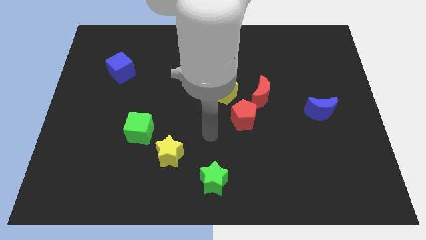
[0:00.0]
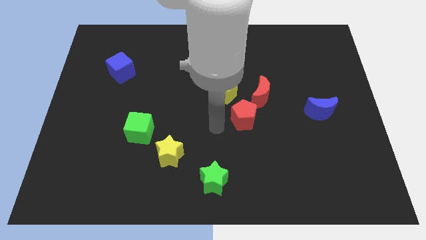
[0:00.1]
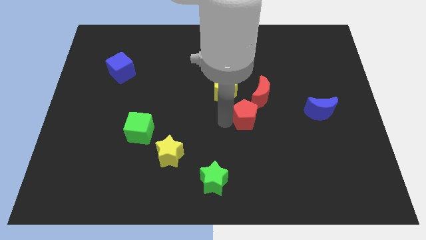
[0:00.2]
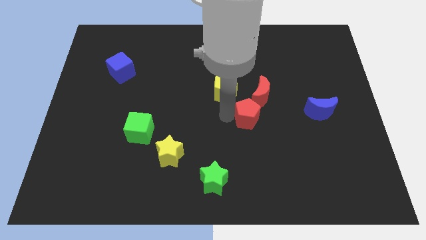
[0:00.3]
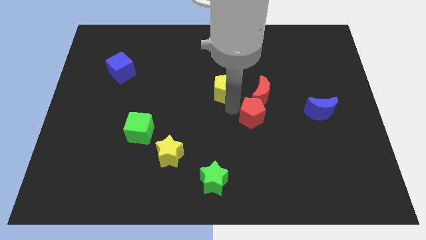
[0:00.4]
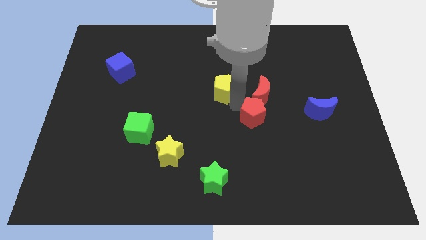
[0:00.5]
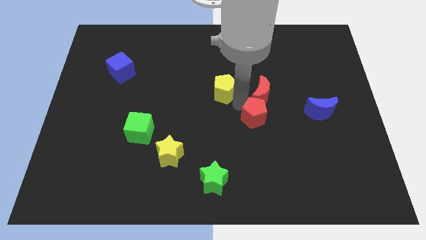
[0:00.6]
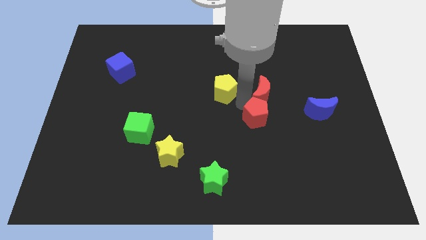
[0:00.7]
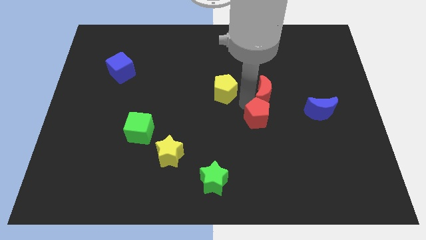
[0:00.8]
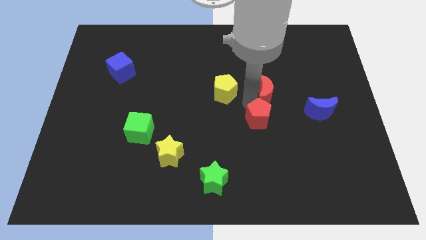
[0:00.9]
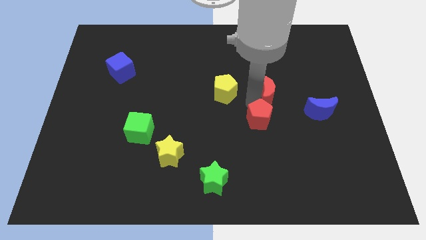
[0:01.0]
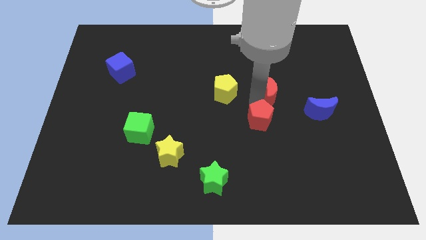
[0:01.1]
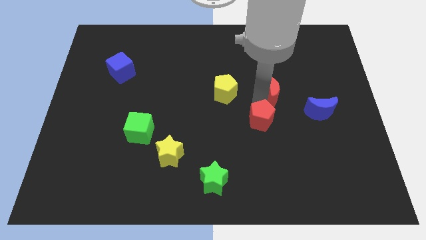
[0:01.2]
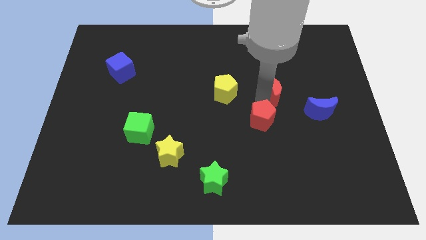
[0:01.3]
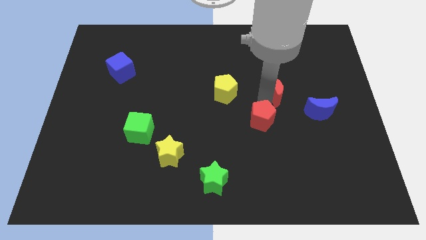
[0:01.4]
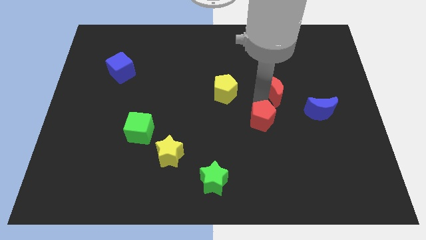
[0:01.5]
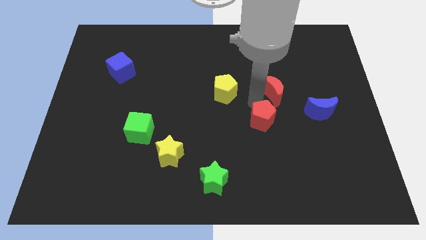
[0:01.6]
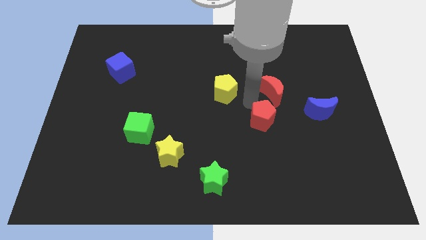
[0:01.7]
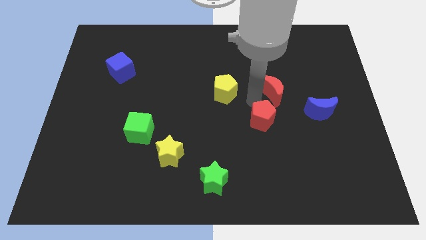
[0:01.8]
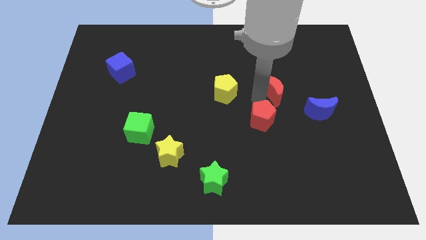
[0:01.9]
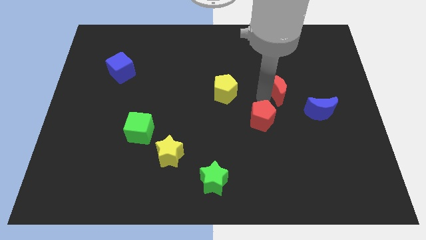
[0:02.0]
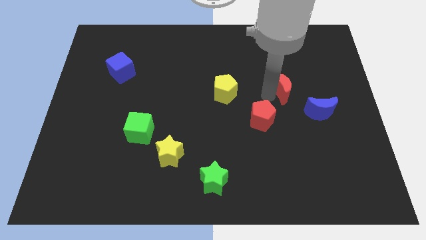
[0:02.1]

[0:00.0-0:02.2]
move the red moon away from the red pentagon and yellow pentagon

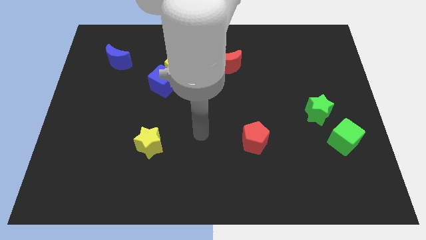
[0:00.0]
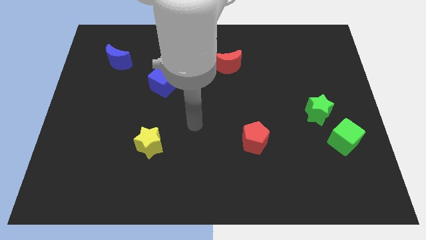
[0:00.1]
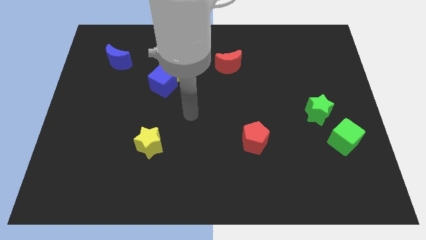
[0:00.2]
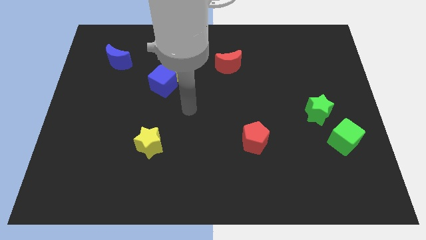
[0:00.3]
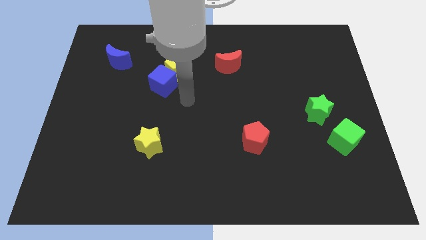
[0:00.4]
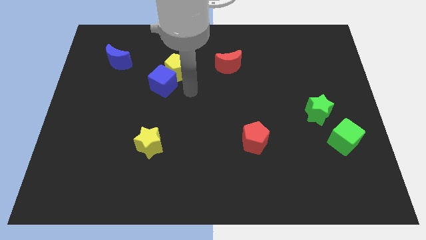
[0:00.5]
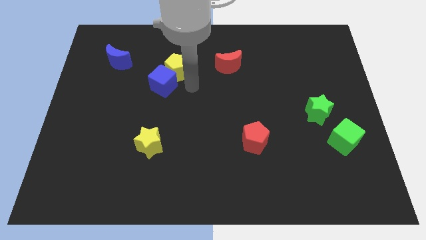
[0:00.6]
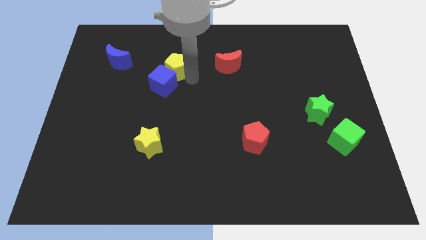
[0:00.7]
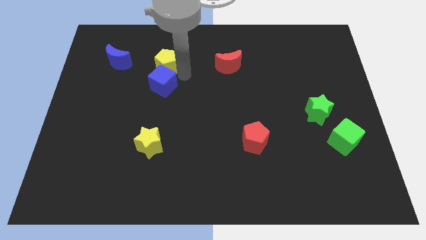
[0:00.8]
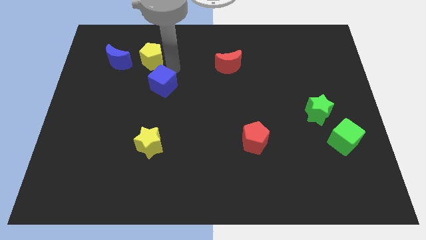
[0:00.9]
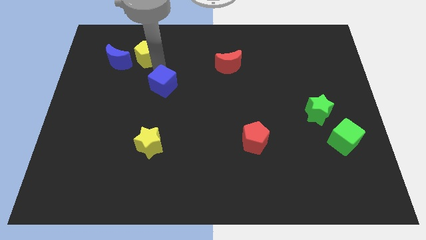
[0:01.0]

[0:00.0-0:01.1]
pull the blue cube apart from the yellow pentagon

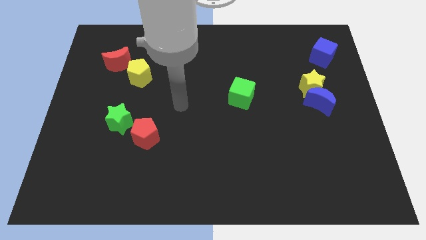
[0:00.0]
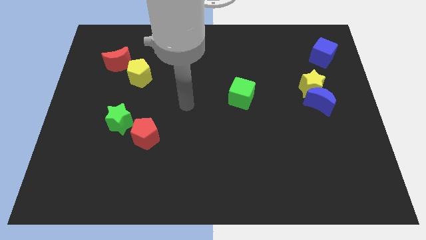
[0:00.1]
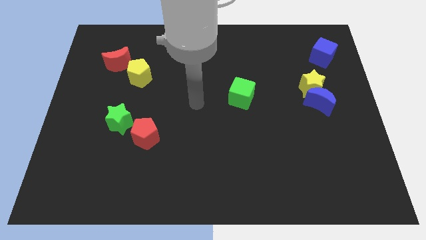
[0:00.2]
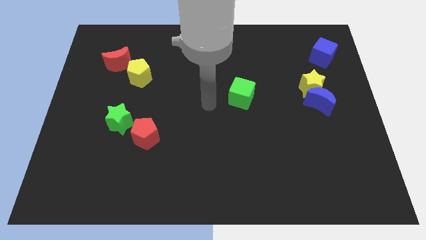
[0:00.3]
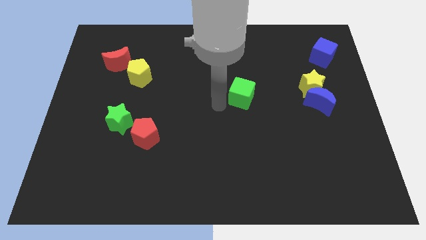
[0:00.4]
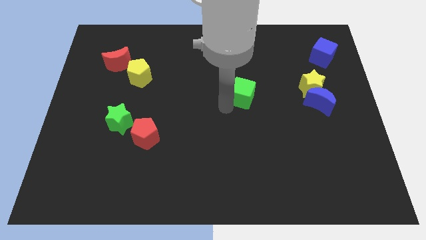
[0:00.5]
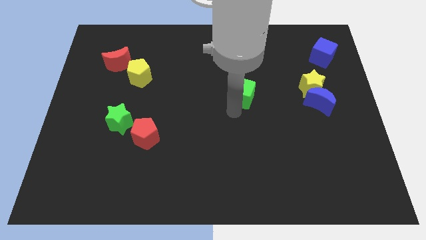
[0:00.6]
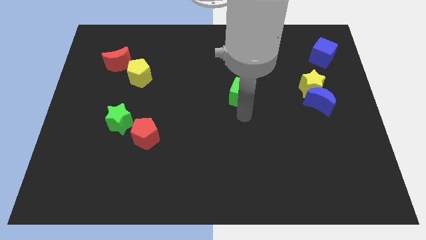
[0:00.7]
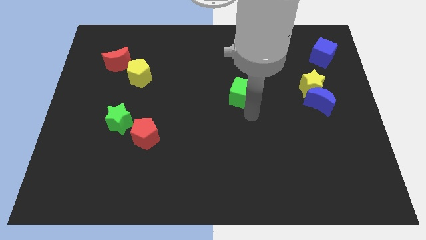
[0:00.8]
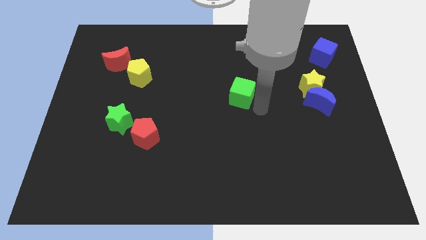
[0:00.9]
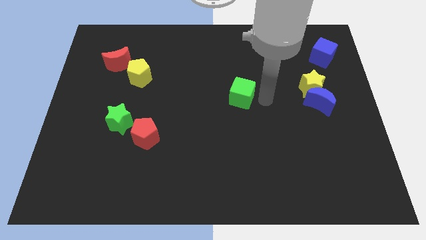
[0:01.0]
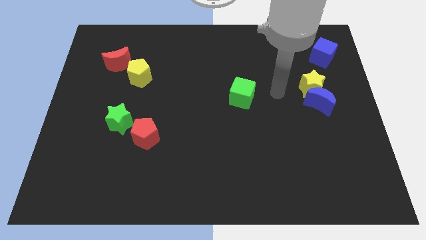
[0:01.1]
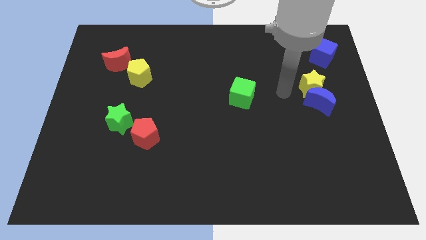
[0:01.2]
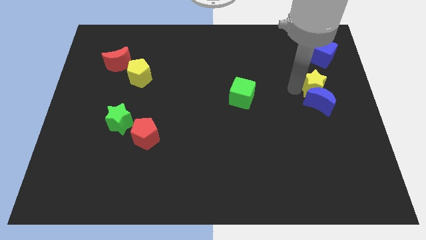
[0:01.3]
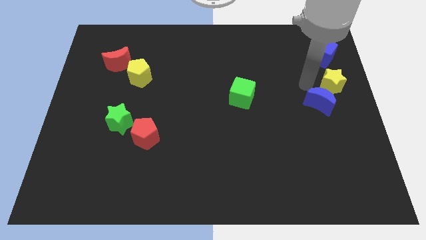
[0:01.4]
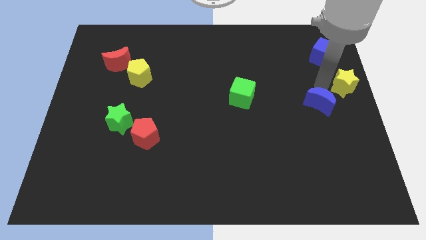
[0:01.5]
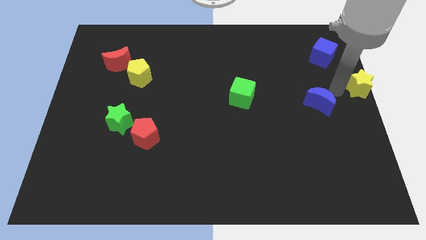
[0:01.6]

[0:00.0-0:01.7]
separate the blue moon from the yellow star

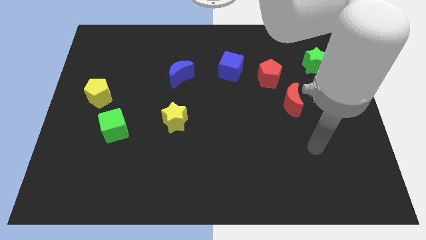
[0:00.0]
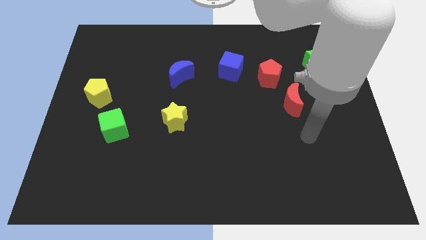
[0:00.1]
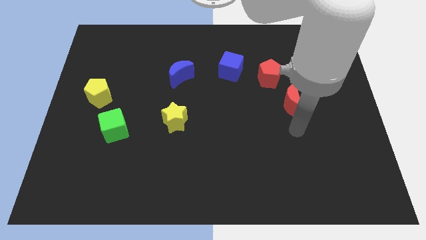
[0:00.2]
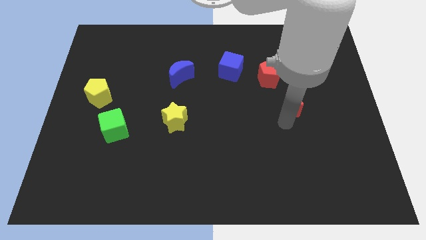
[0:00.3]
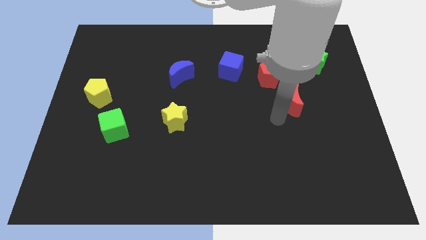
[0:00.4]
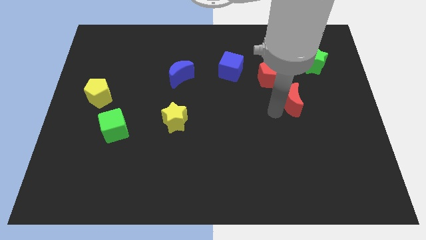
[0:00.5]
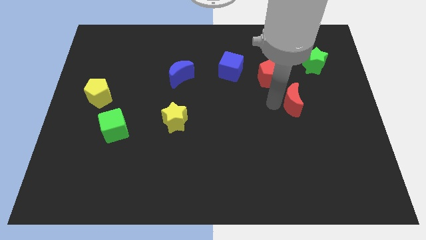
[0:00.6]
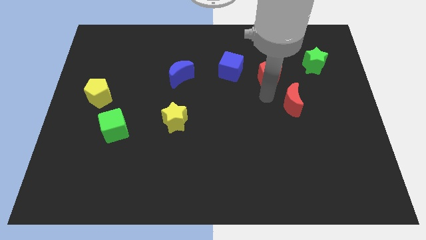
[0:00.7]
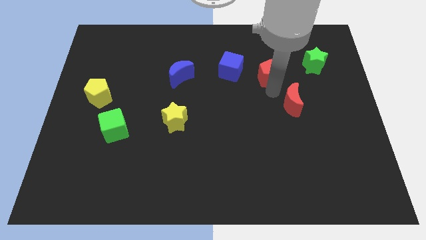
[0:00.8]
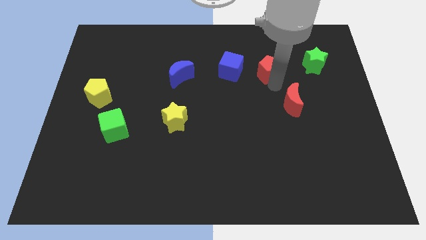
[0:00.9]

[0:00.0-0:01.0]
pull the red moon apart from the red pentagon

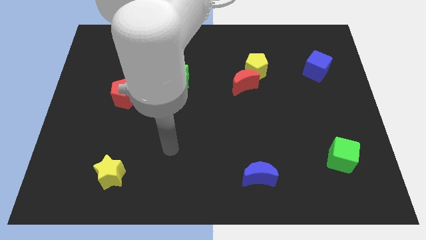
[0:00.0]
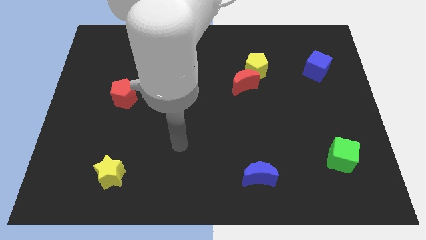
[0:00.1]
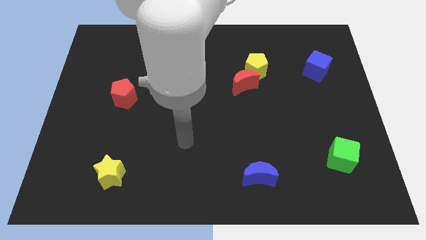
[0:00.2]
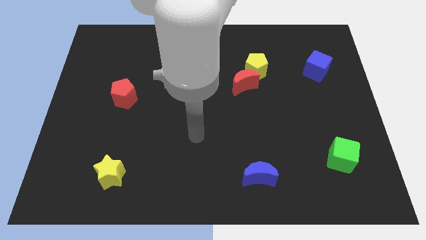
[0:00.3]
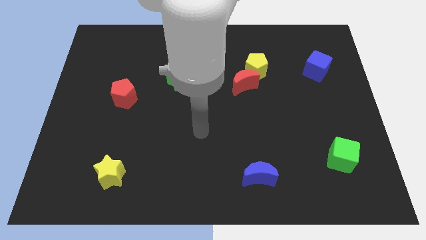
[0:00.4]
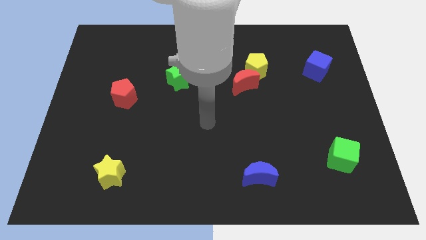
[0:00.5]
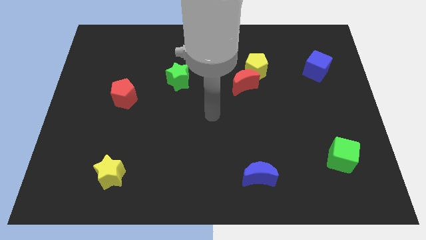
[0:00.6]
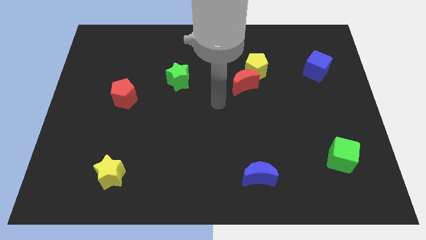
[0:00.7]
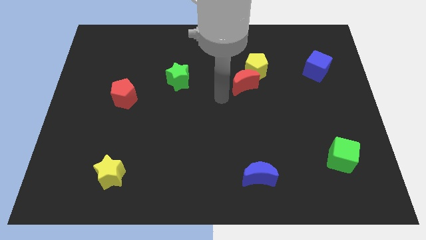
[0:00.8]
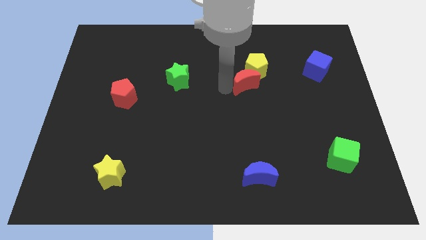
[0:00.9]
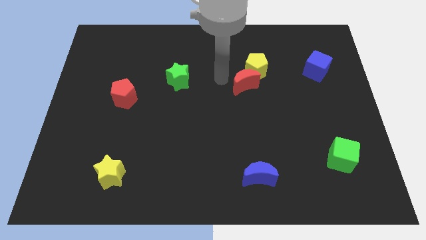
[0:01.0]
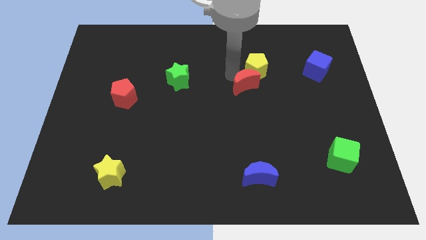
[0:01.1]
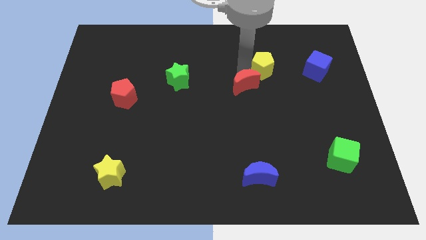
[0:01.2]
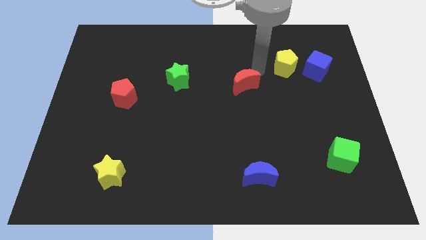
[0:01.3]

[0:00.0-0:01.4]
pull the red moon apart from the yellow pentagon

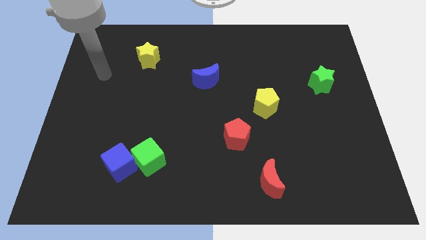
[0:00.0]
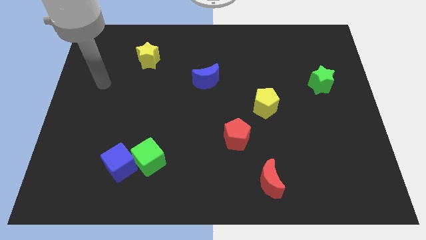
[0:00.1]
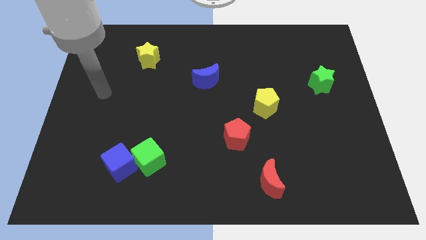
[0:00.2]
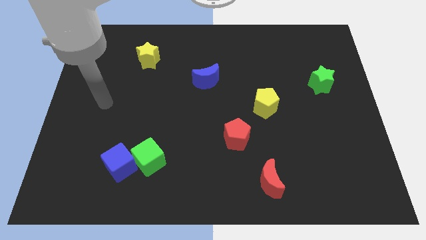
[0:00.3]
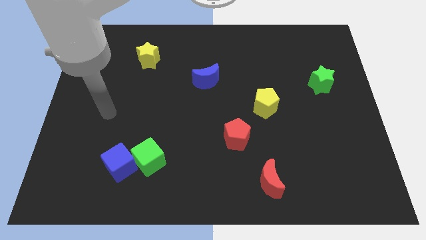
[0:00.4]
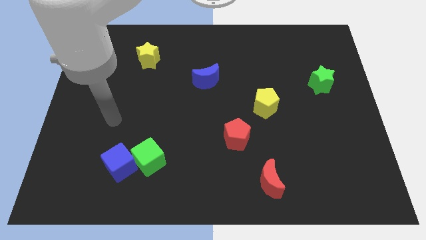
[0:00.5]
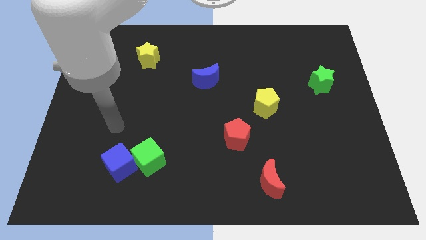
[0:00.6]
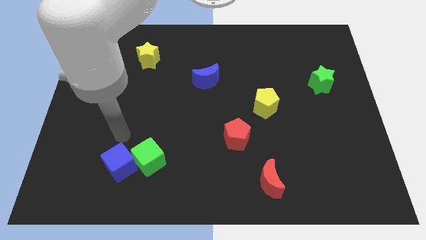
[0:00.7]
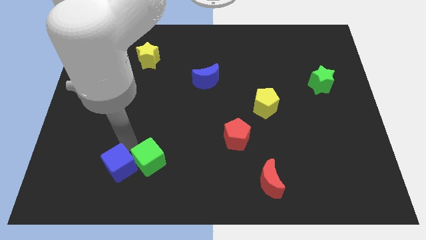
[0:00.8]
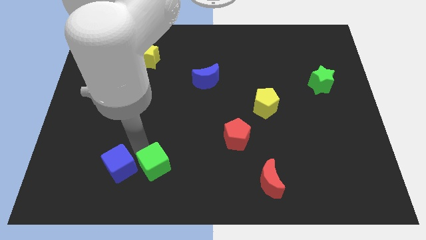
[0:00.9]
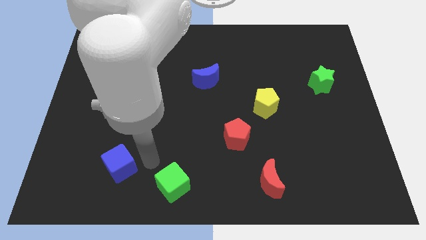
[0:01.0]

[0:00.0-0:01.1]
separate the blue cube from the green cube

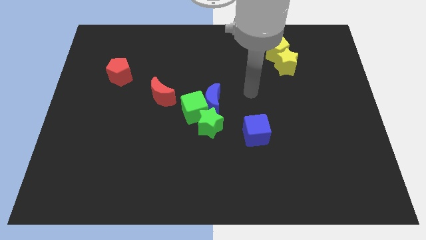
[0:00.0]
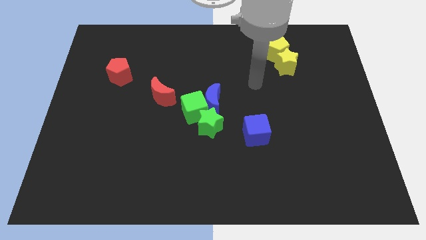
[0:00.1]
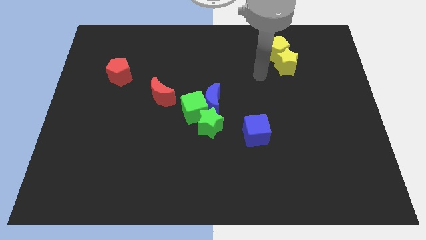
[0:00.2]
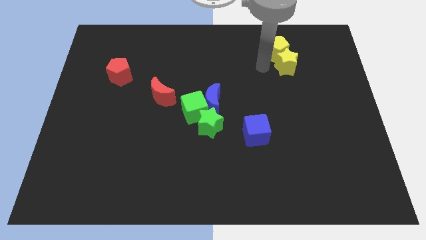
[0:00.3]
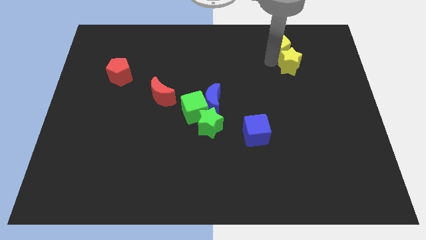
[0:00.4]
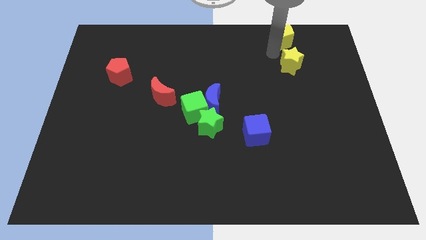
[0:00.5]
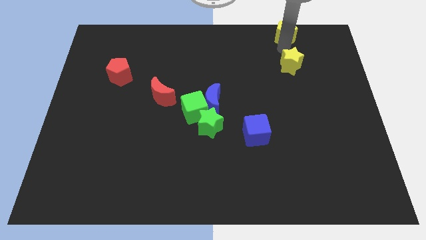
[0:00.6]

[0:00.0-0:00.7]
separate the yellow star from the yellow pentagon

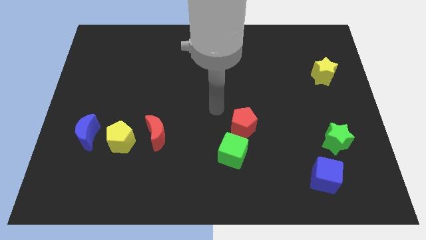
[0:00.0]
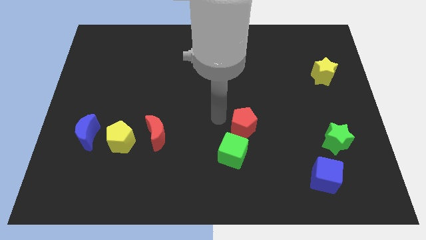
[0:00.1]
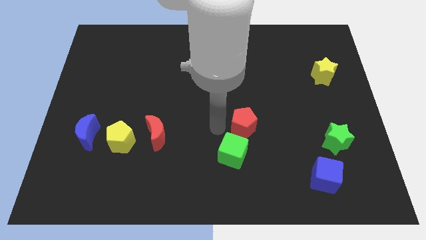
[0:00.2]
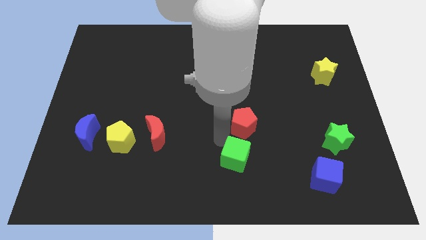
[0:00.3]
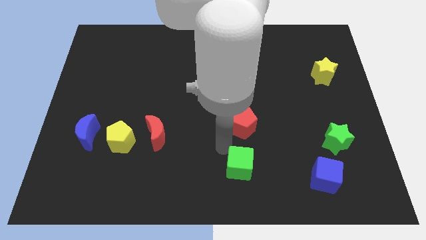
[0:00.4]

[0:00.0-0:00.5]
pull the red pentagon apart from the green cube
